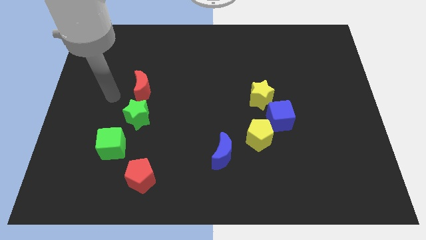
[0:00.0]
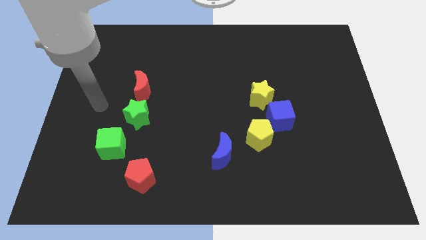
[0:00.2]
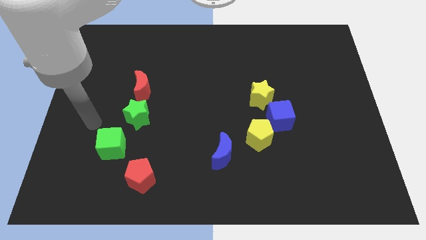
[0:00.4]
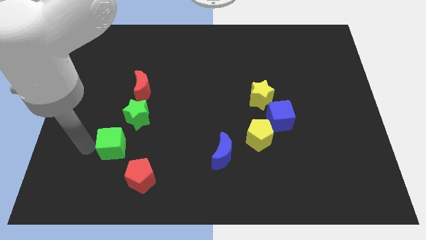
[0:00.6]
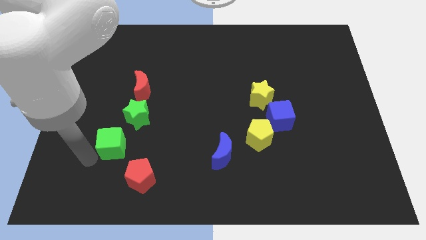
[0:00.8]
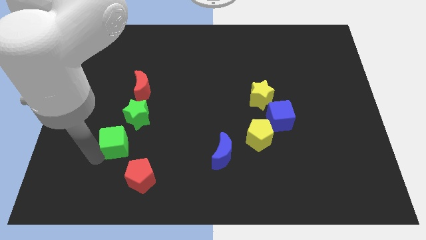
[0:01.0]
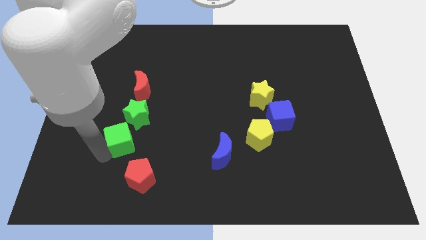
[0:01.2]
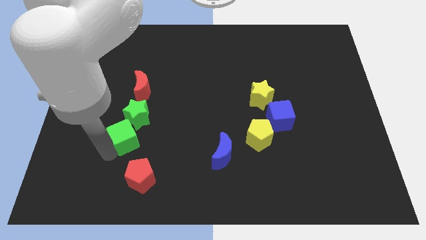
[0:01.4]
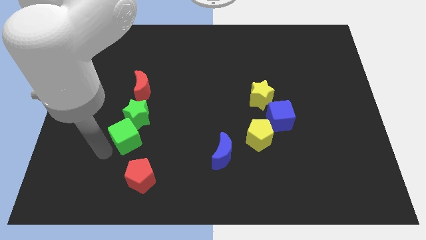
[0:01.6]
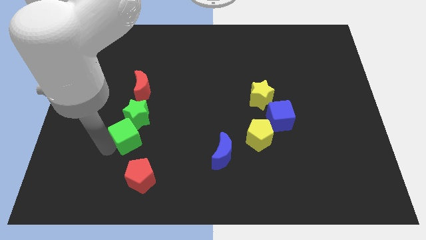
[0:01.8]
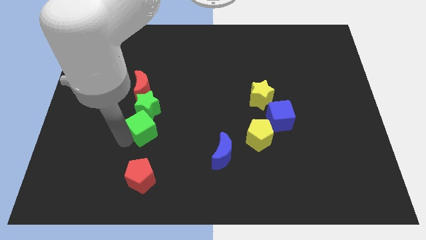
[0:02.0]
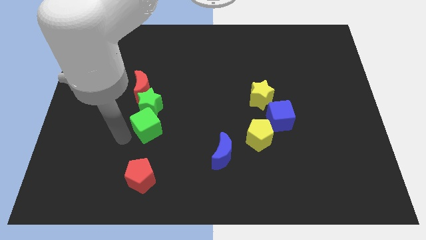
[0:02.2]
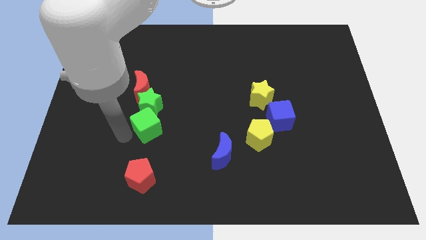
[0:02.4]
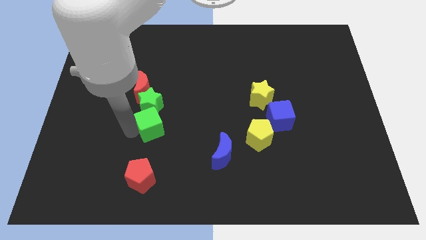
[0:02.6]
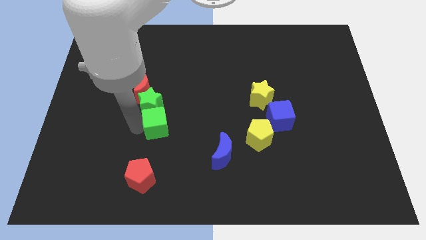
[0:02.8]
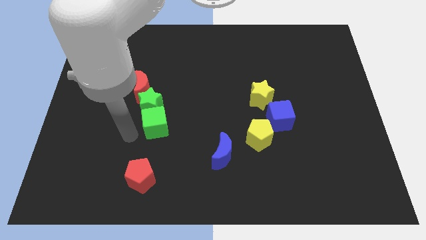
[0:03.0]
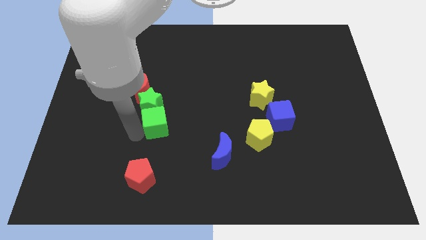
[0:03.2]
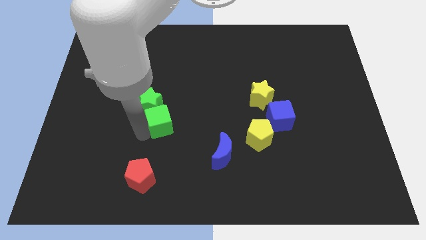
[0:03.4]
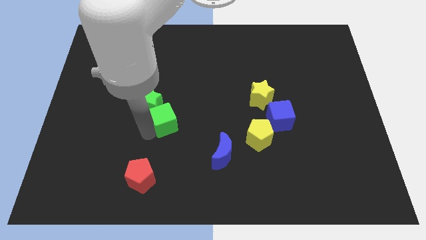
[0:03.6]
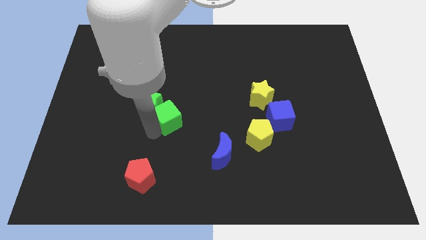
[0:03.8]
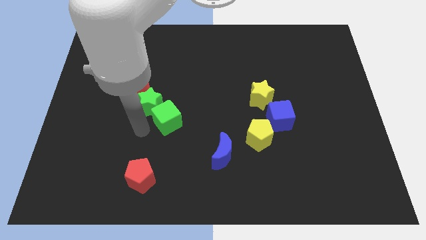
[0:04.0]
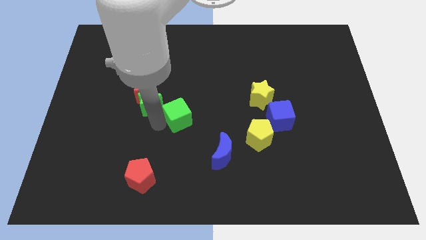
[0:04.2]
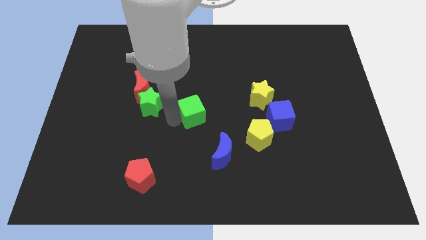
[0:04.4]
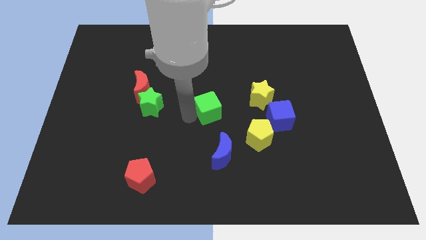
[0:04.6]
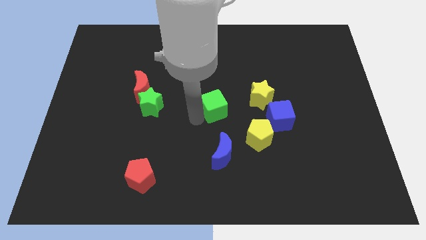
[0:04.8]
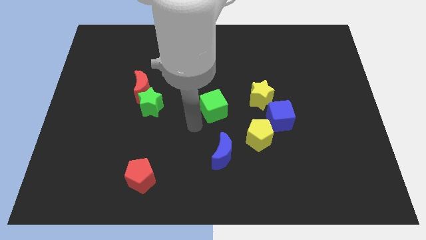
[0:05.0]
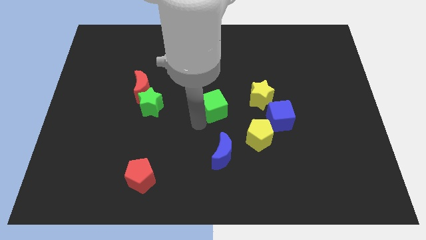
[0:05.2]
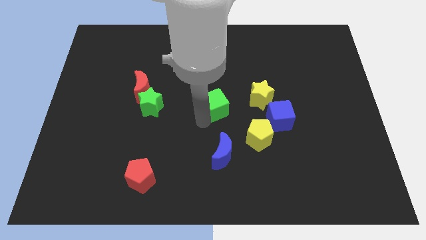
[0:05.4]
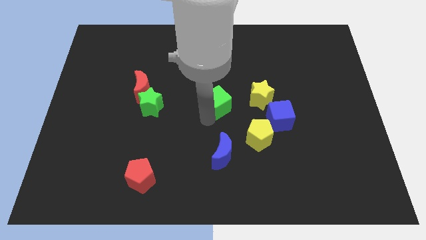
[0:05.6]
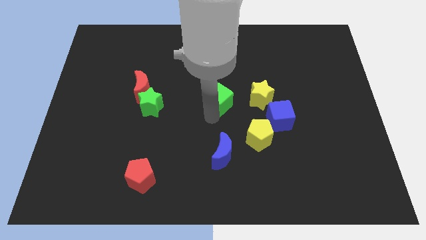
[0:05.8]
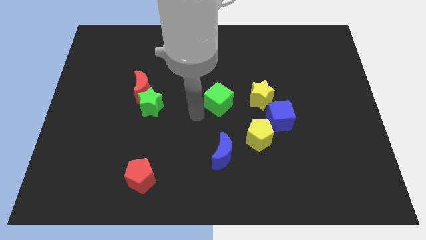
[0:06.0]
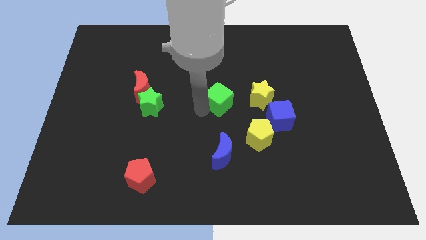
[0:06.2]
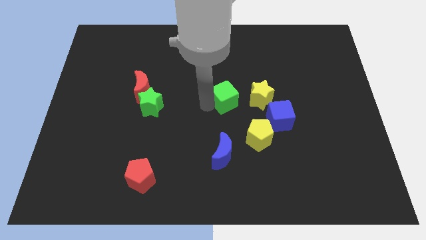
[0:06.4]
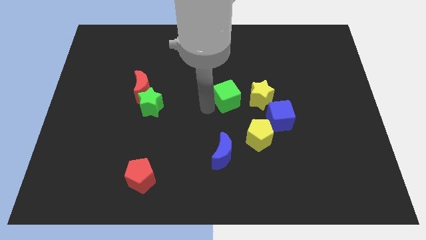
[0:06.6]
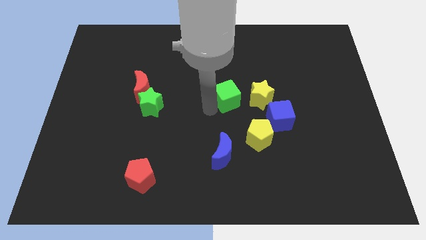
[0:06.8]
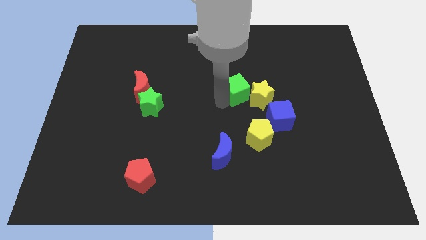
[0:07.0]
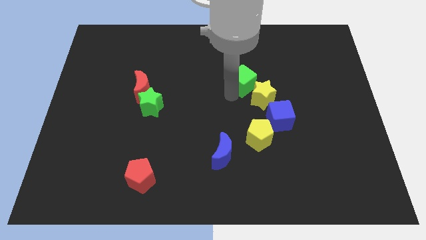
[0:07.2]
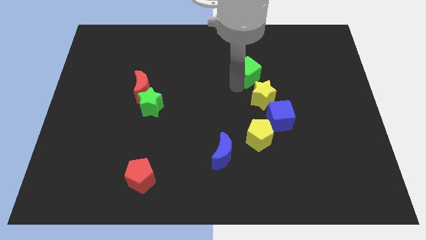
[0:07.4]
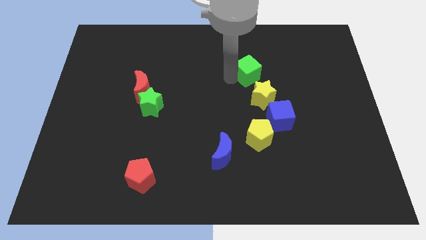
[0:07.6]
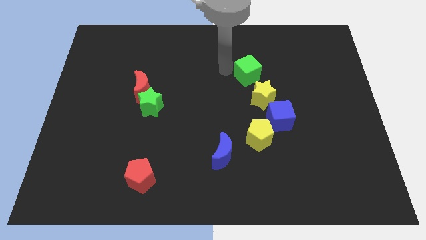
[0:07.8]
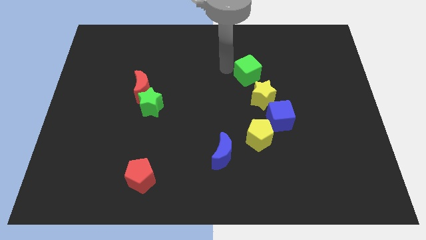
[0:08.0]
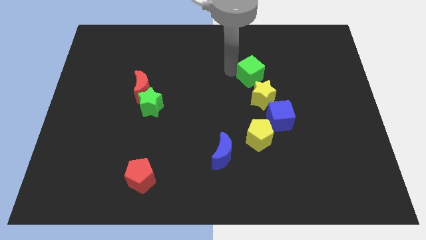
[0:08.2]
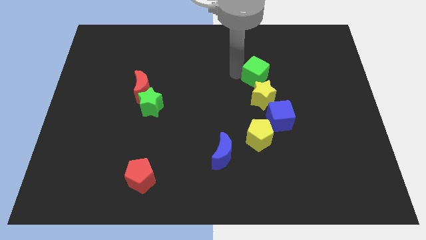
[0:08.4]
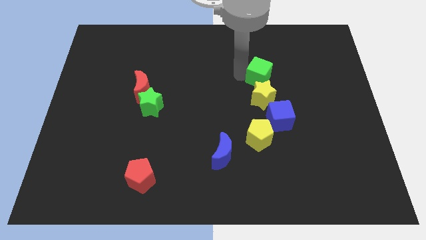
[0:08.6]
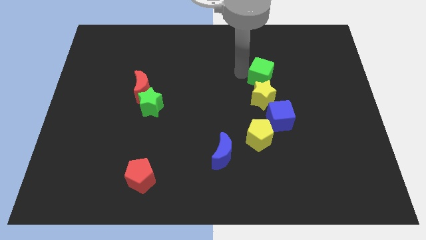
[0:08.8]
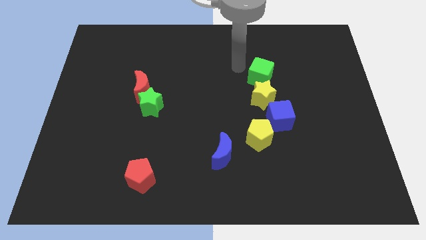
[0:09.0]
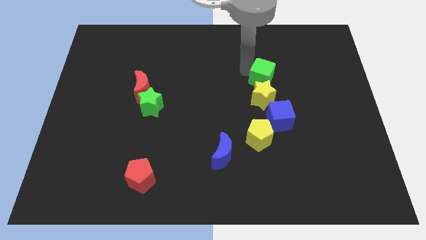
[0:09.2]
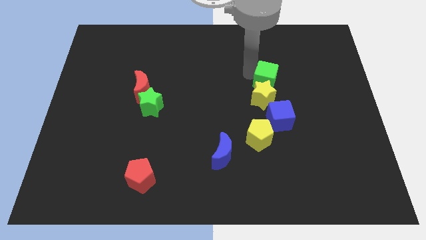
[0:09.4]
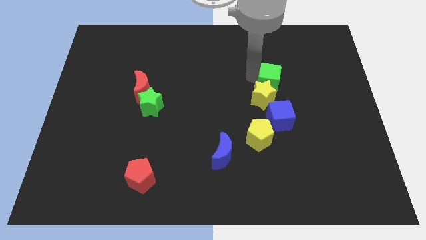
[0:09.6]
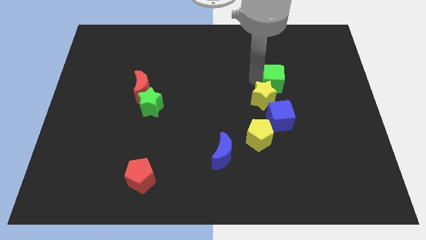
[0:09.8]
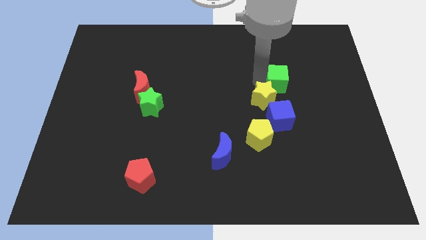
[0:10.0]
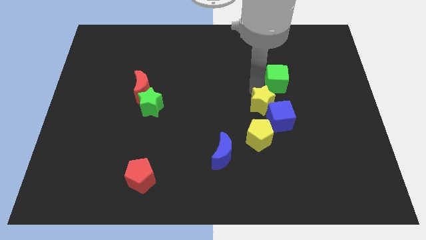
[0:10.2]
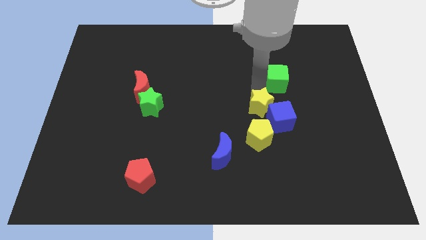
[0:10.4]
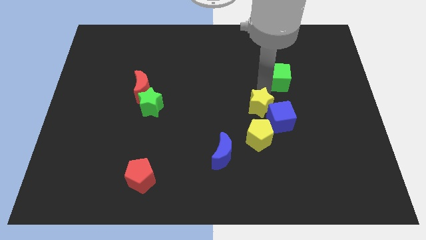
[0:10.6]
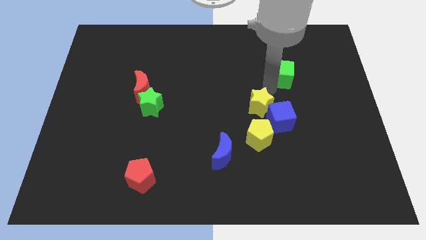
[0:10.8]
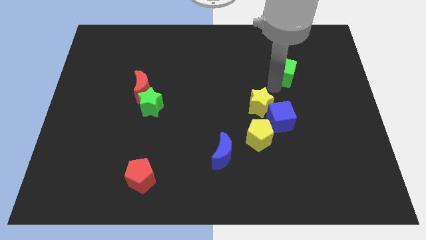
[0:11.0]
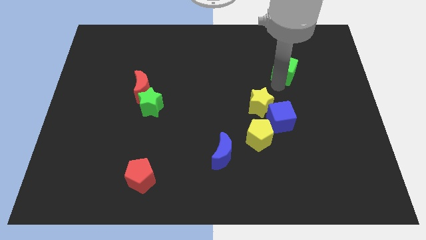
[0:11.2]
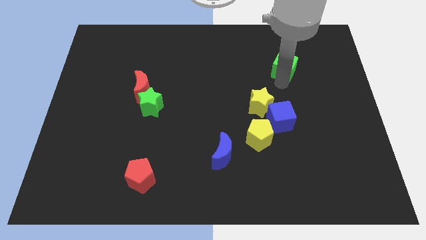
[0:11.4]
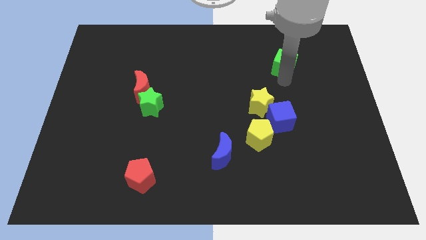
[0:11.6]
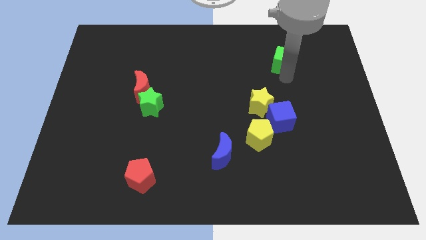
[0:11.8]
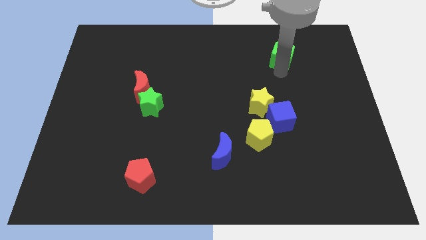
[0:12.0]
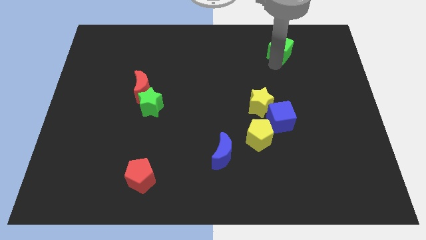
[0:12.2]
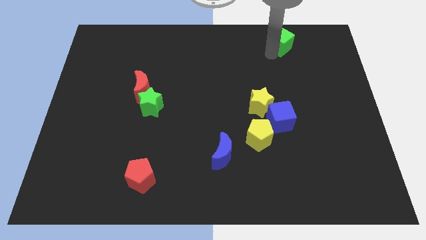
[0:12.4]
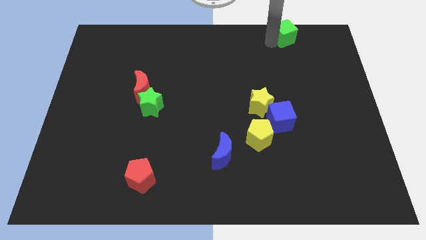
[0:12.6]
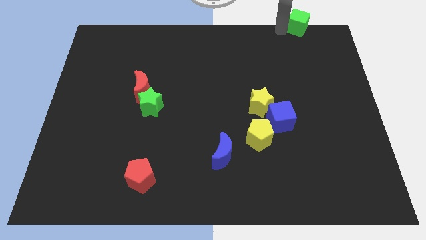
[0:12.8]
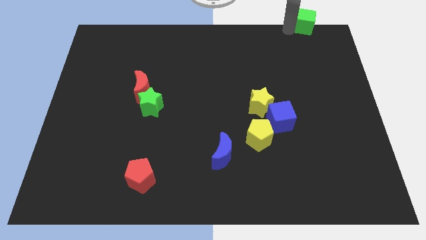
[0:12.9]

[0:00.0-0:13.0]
move the green cube to the top right of the board
